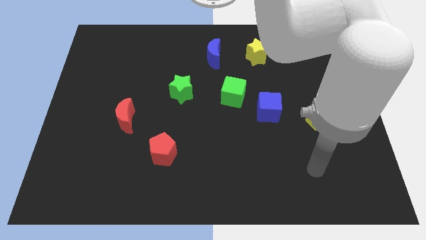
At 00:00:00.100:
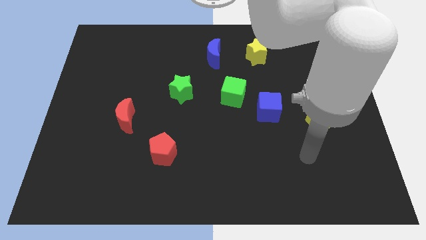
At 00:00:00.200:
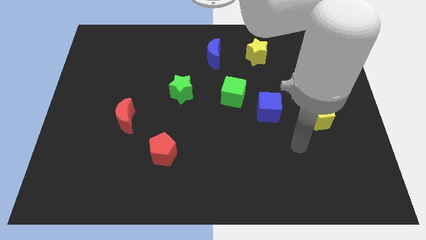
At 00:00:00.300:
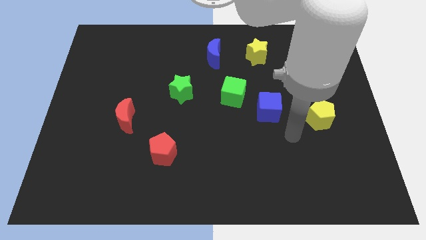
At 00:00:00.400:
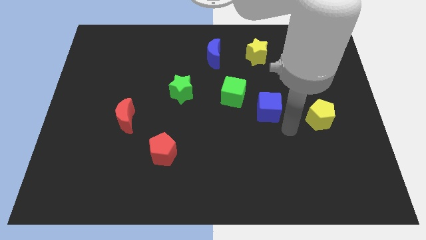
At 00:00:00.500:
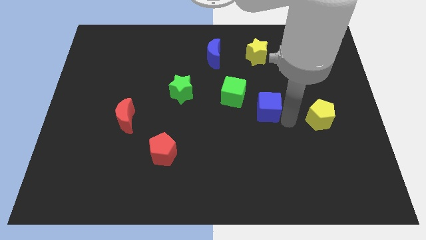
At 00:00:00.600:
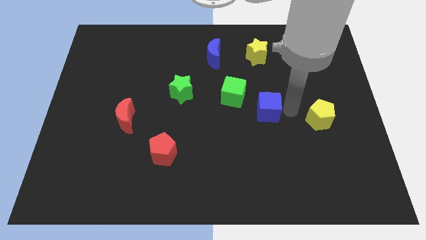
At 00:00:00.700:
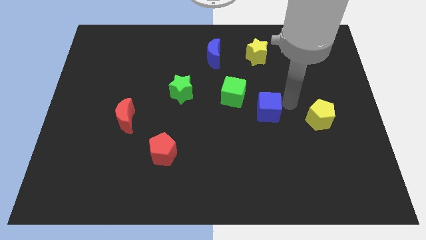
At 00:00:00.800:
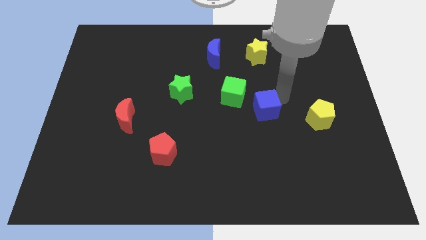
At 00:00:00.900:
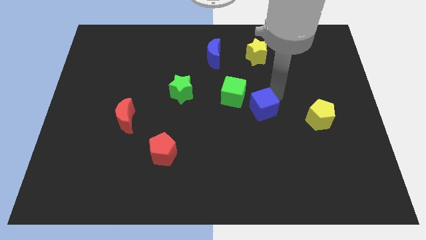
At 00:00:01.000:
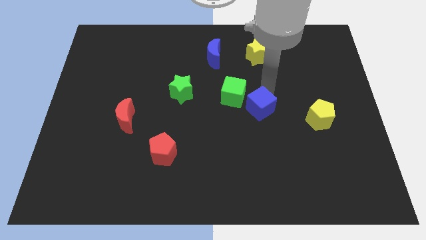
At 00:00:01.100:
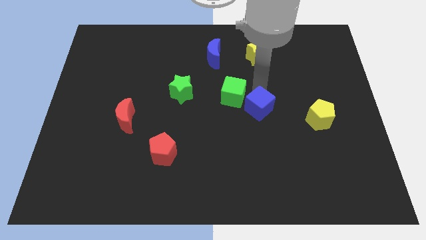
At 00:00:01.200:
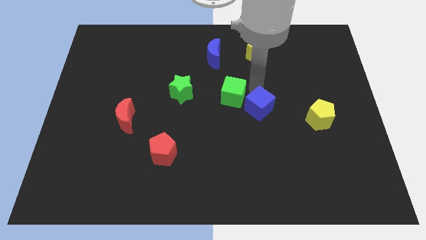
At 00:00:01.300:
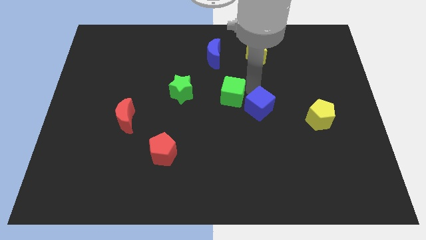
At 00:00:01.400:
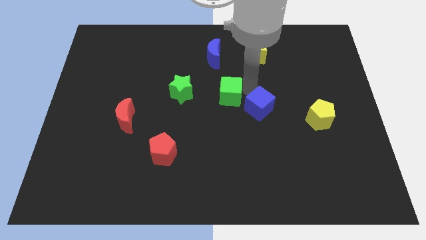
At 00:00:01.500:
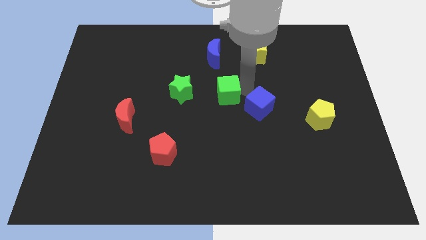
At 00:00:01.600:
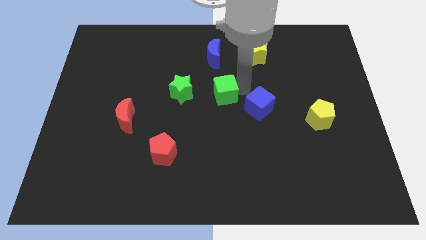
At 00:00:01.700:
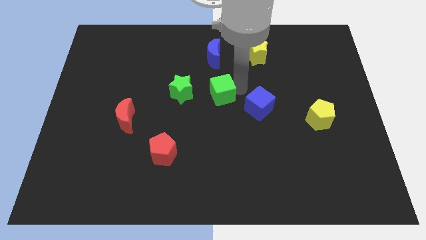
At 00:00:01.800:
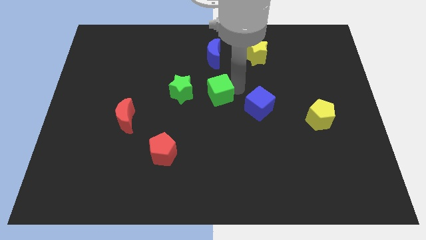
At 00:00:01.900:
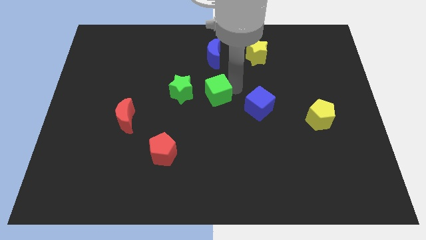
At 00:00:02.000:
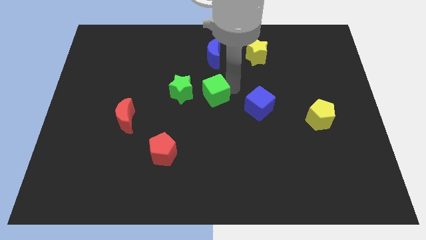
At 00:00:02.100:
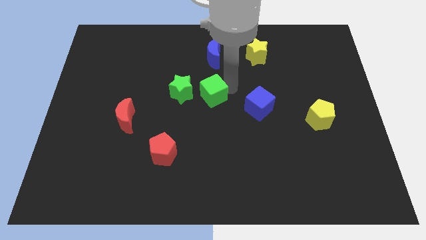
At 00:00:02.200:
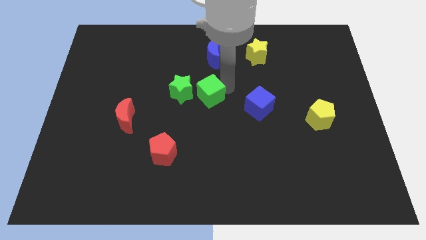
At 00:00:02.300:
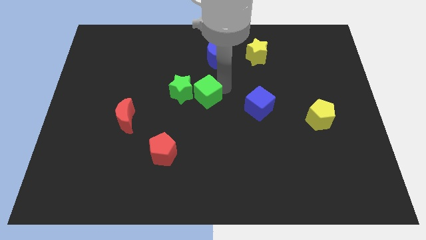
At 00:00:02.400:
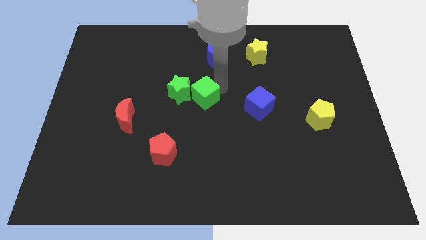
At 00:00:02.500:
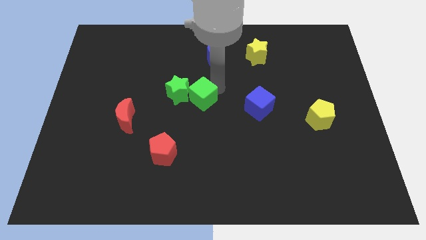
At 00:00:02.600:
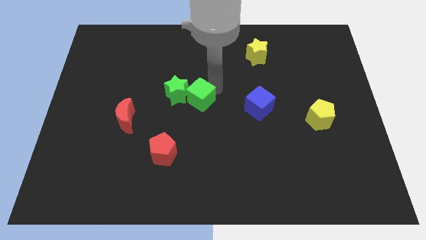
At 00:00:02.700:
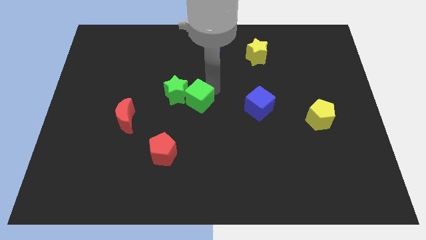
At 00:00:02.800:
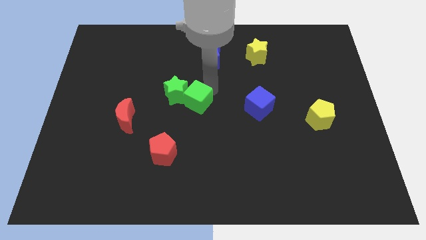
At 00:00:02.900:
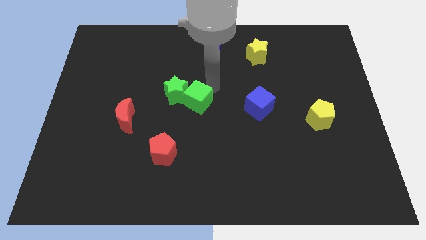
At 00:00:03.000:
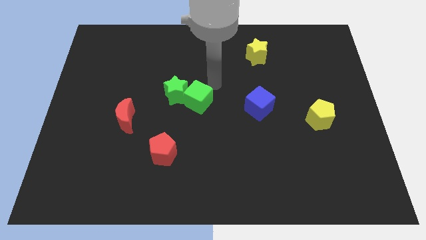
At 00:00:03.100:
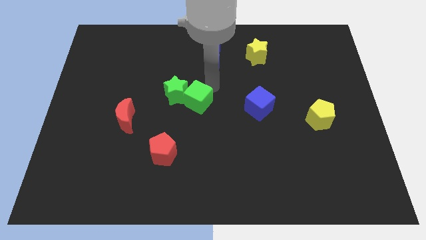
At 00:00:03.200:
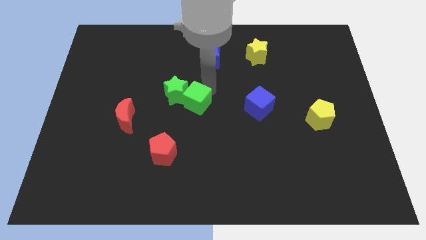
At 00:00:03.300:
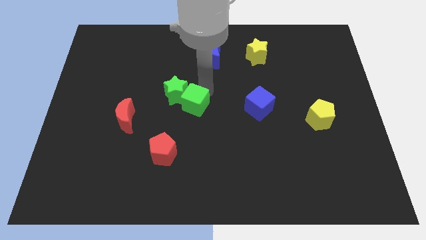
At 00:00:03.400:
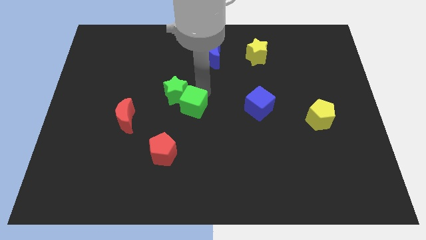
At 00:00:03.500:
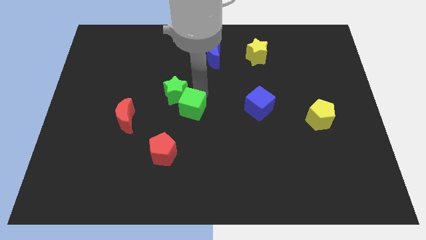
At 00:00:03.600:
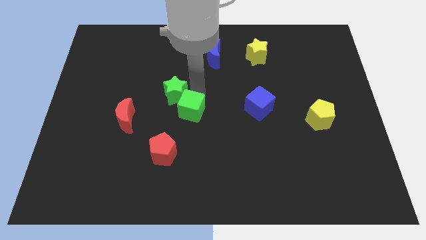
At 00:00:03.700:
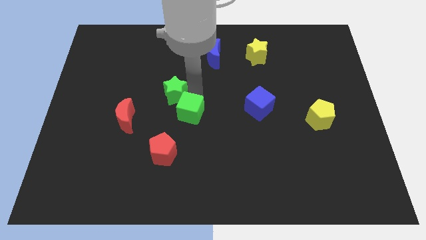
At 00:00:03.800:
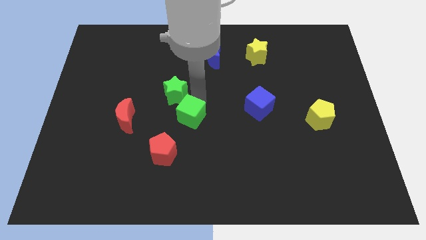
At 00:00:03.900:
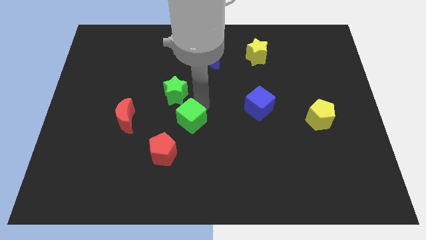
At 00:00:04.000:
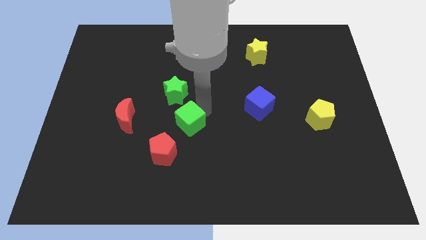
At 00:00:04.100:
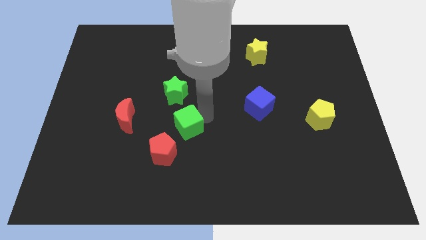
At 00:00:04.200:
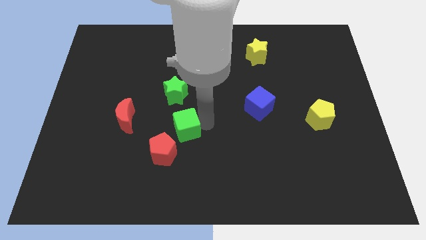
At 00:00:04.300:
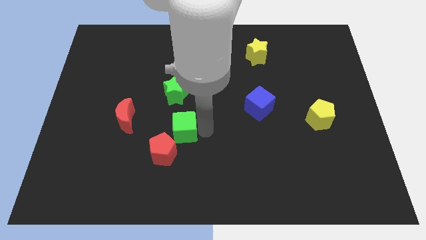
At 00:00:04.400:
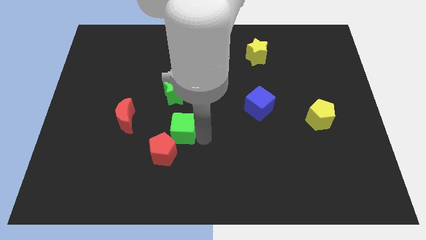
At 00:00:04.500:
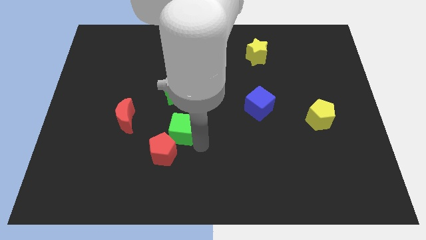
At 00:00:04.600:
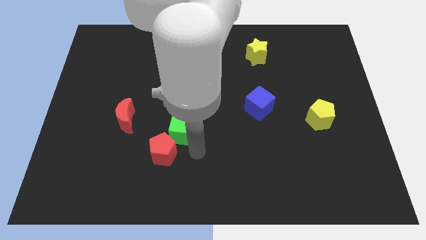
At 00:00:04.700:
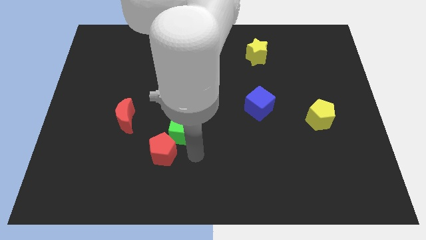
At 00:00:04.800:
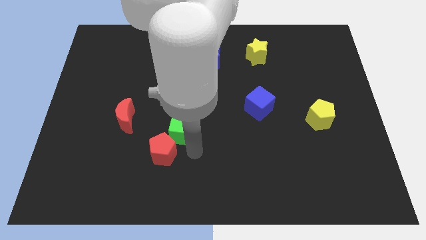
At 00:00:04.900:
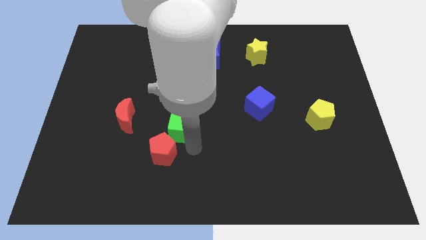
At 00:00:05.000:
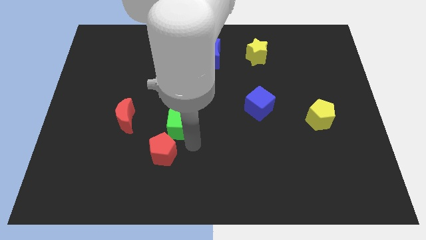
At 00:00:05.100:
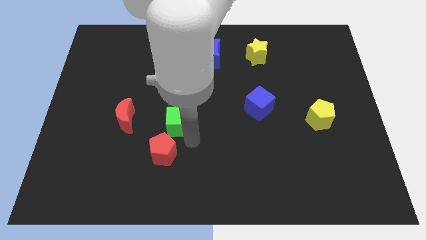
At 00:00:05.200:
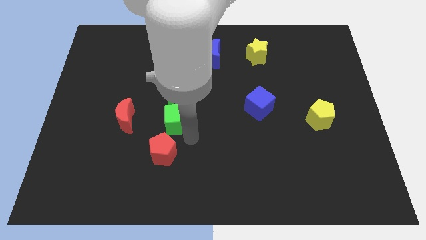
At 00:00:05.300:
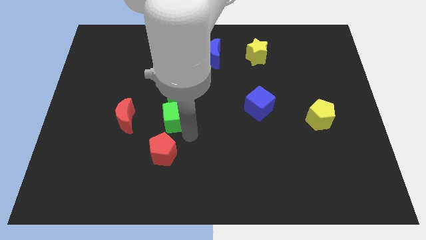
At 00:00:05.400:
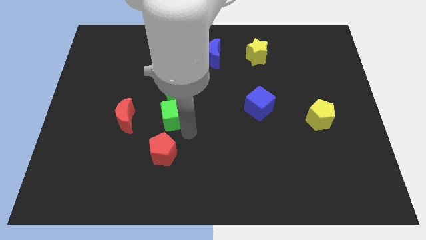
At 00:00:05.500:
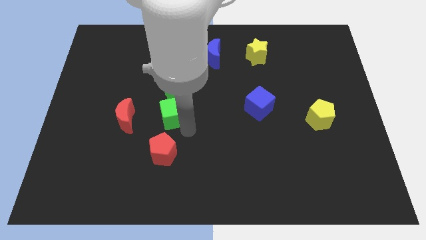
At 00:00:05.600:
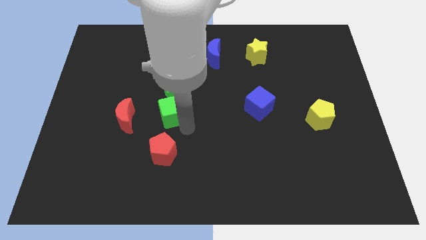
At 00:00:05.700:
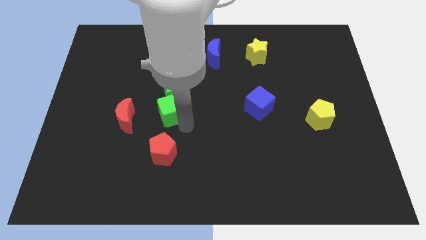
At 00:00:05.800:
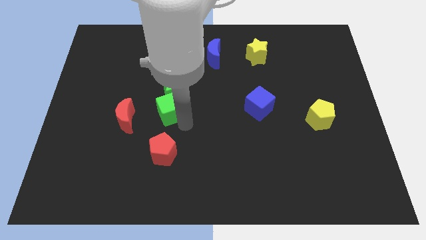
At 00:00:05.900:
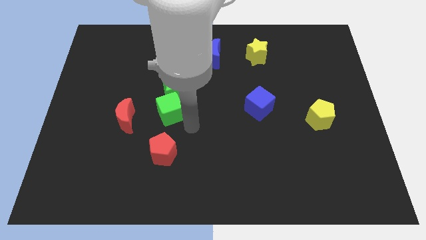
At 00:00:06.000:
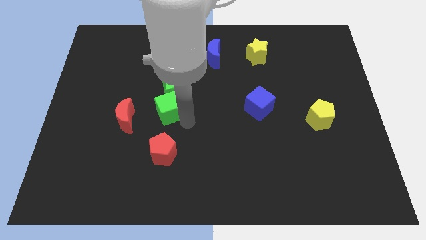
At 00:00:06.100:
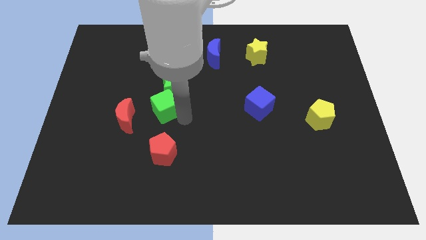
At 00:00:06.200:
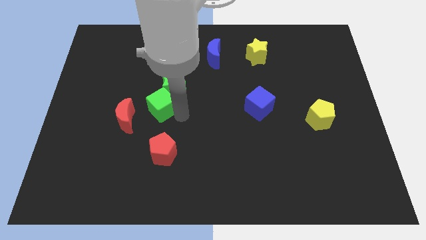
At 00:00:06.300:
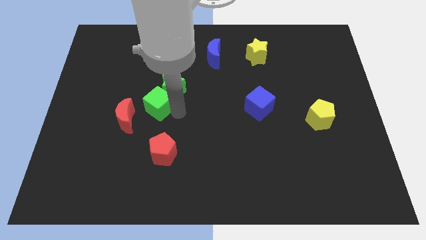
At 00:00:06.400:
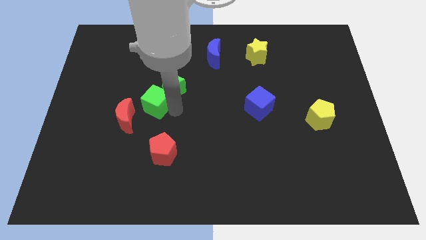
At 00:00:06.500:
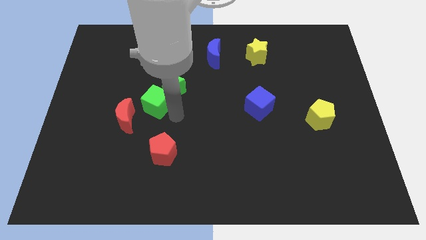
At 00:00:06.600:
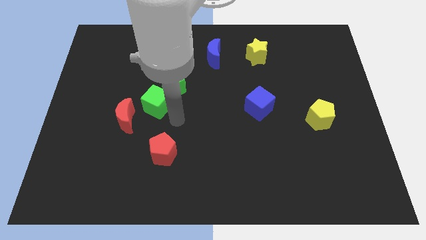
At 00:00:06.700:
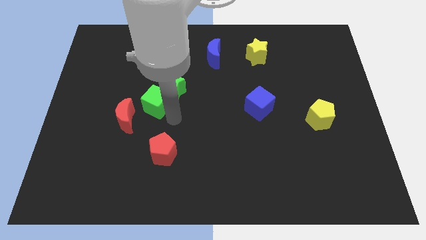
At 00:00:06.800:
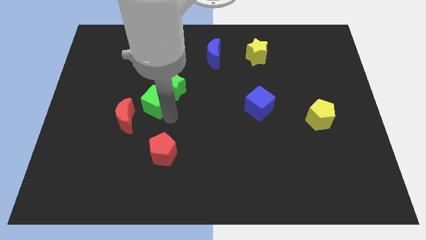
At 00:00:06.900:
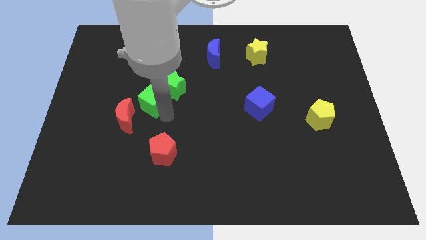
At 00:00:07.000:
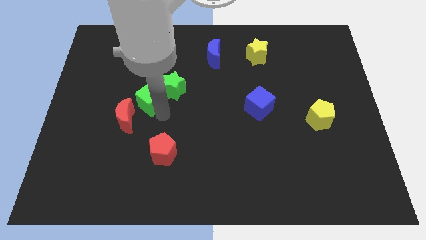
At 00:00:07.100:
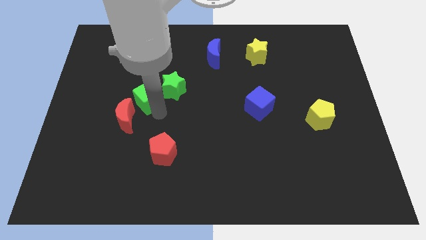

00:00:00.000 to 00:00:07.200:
push the green cube to the top side of the red moon
